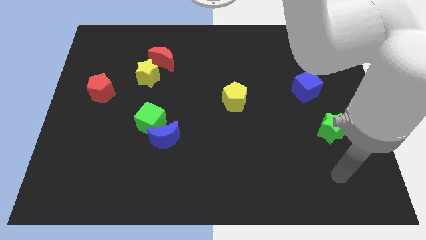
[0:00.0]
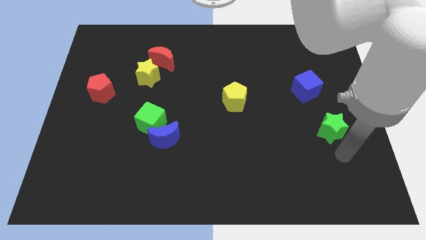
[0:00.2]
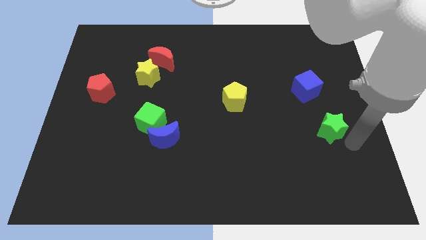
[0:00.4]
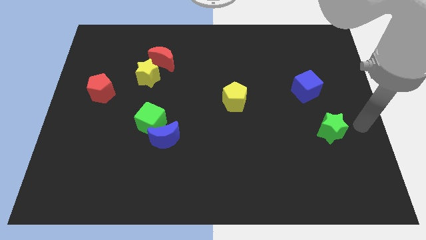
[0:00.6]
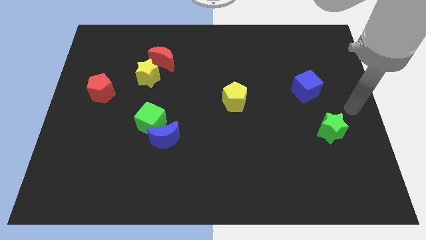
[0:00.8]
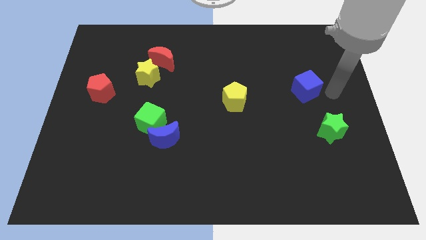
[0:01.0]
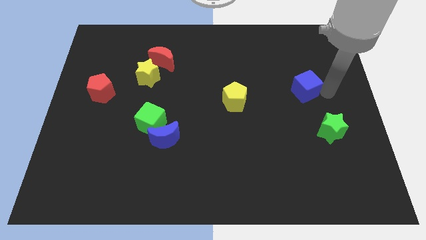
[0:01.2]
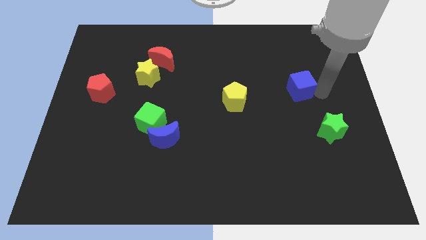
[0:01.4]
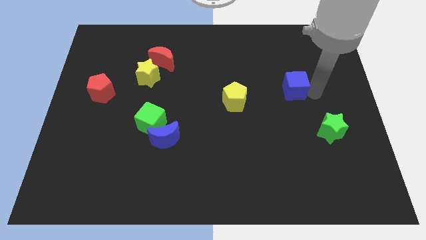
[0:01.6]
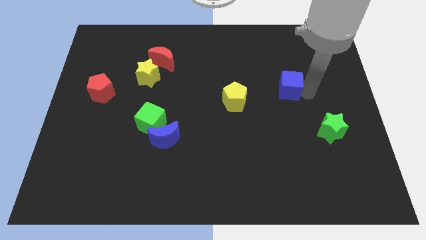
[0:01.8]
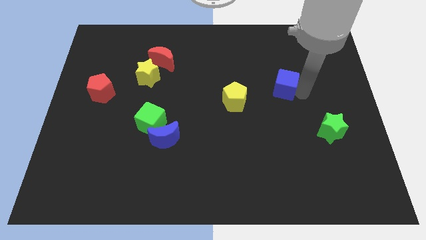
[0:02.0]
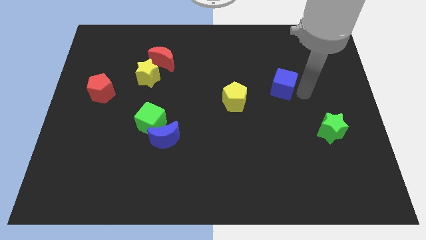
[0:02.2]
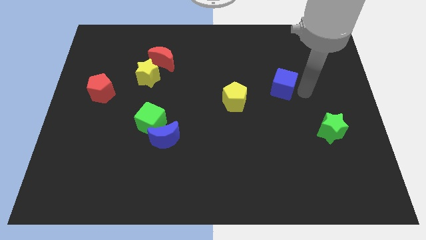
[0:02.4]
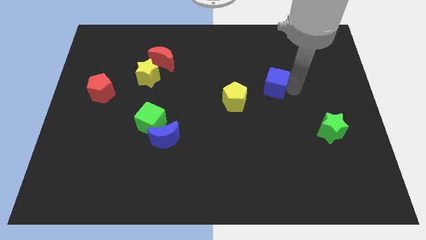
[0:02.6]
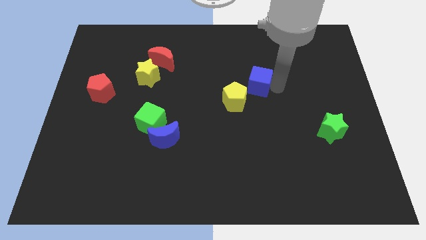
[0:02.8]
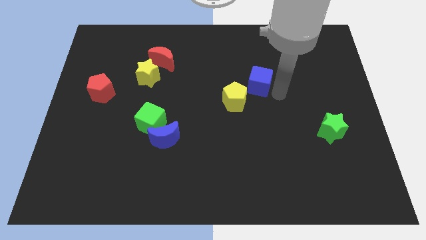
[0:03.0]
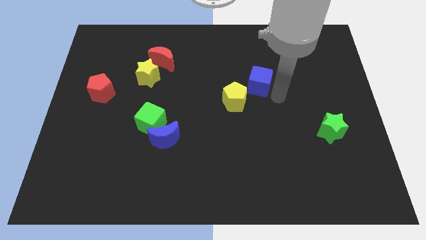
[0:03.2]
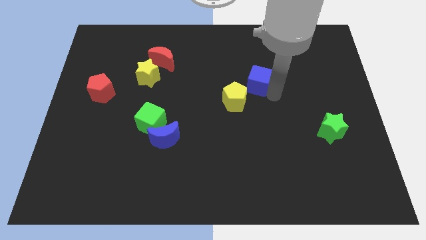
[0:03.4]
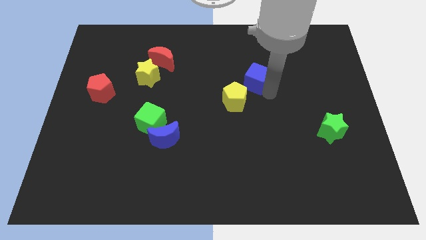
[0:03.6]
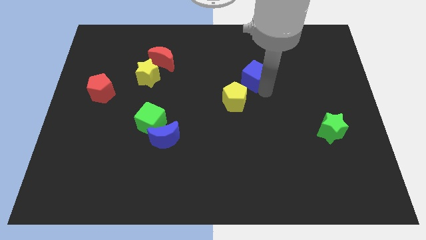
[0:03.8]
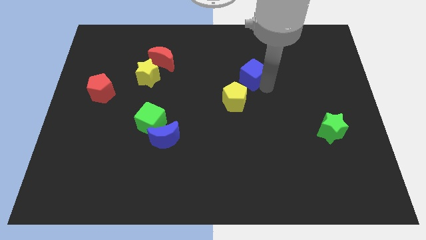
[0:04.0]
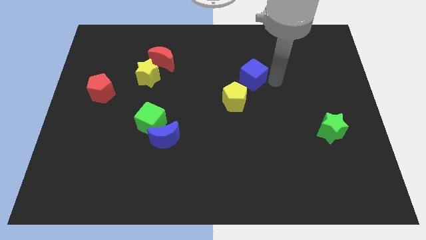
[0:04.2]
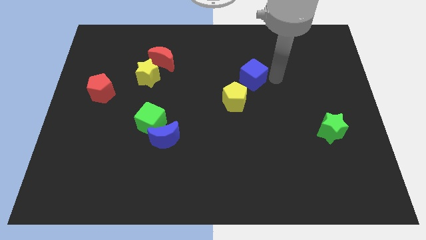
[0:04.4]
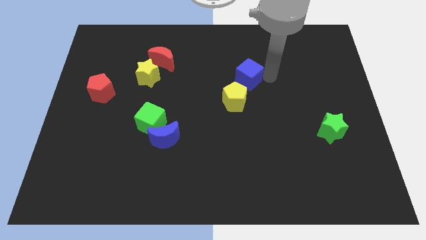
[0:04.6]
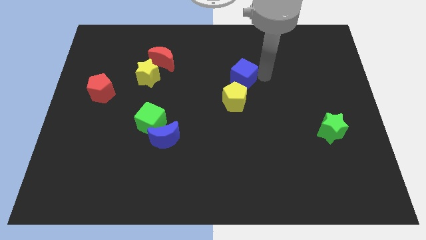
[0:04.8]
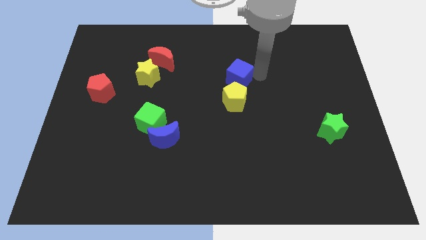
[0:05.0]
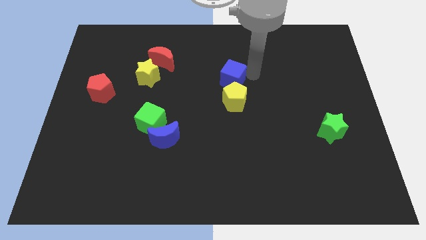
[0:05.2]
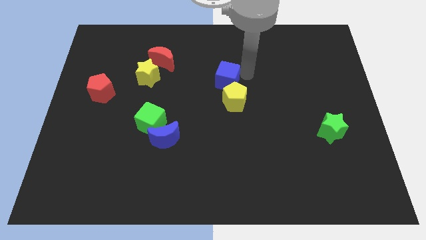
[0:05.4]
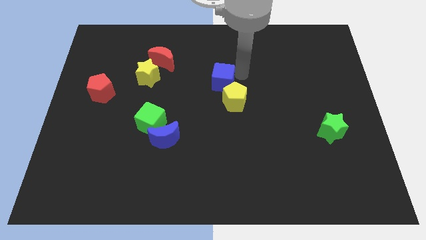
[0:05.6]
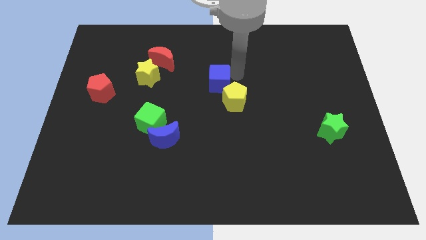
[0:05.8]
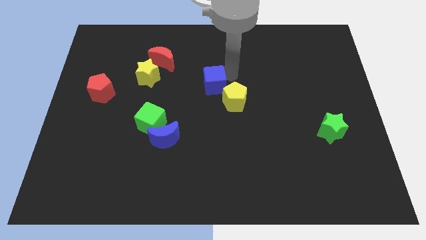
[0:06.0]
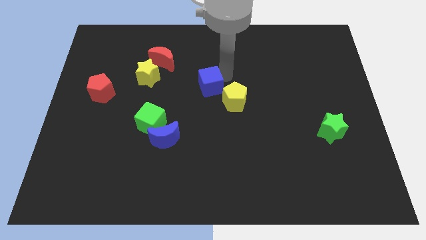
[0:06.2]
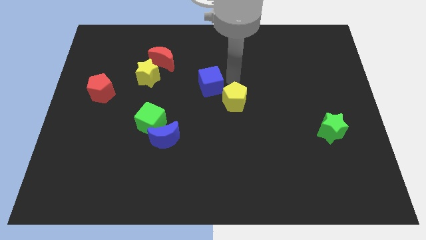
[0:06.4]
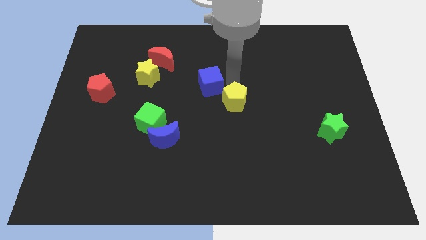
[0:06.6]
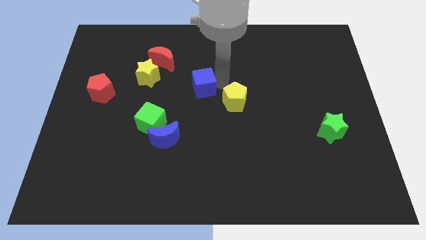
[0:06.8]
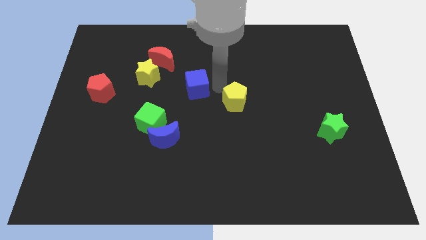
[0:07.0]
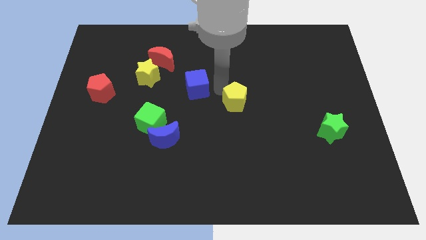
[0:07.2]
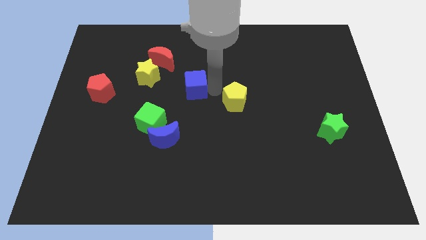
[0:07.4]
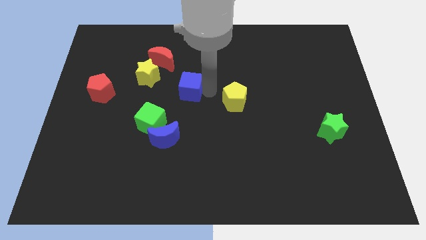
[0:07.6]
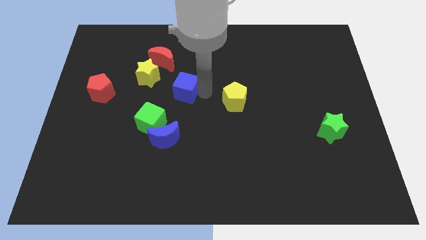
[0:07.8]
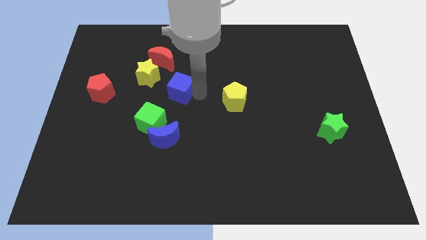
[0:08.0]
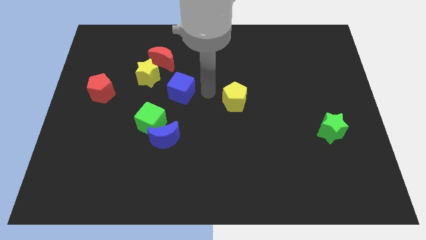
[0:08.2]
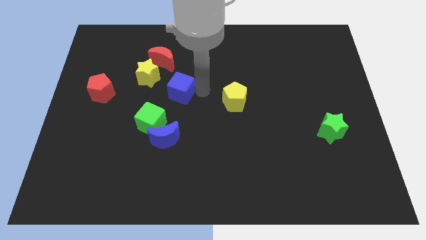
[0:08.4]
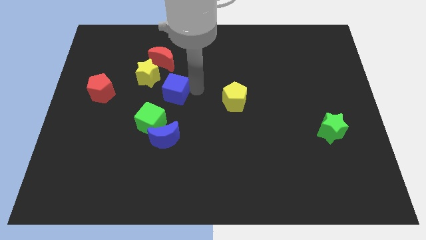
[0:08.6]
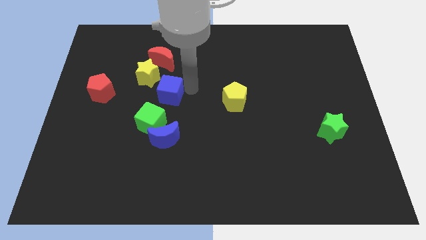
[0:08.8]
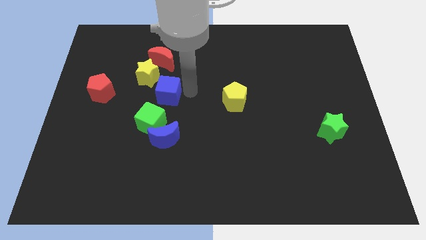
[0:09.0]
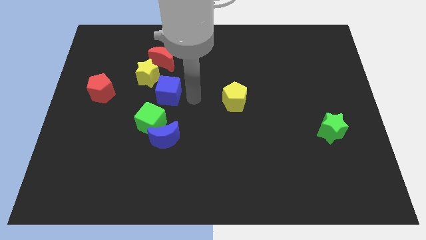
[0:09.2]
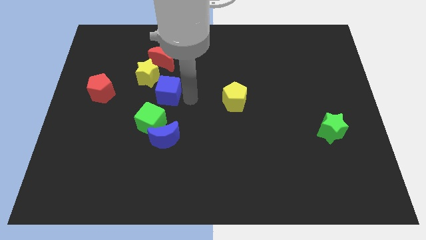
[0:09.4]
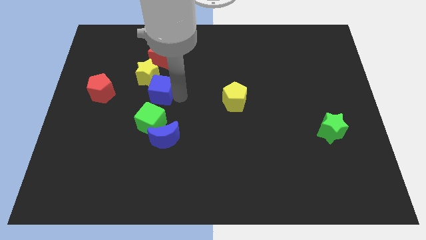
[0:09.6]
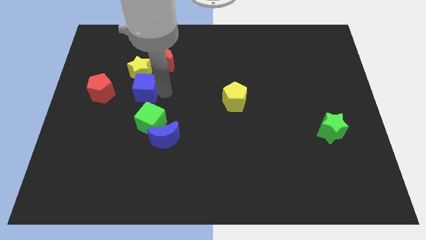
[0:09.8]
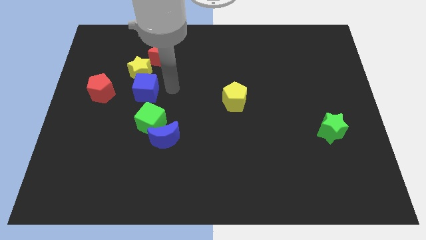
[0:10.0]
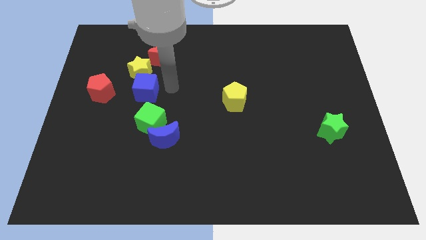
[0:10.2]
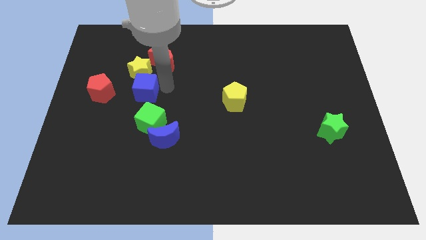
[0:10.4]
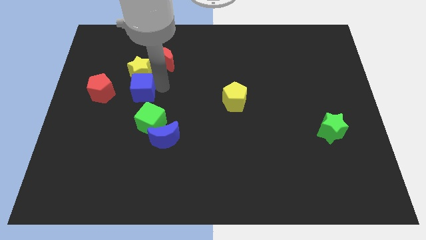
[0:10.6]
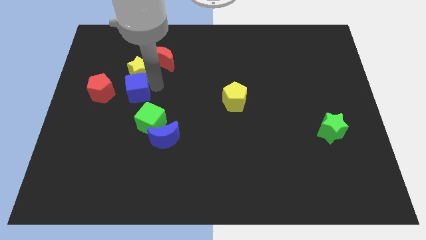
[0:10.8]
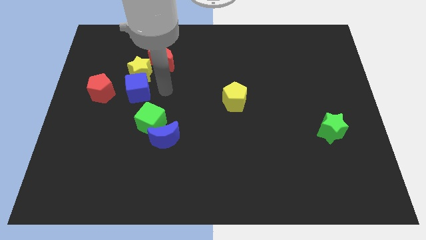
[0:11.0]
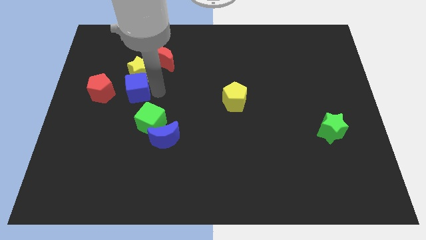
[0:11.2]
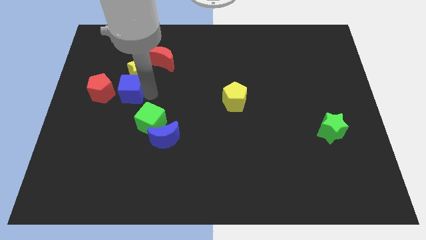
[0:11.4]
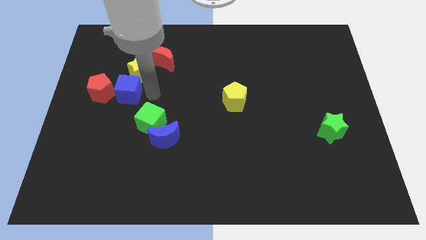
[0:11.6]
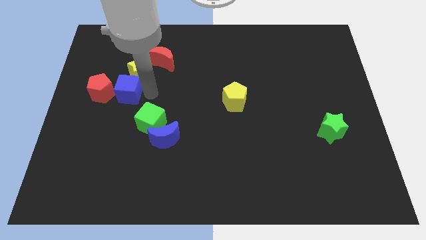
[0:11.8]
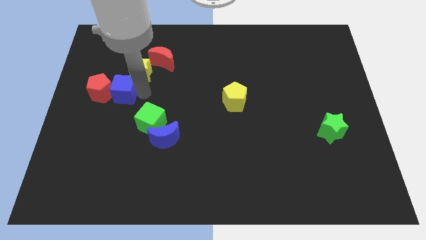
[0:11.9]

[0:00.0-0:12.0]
put the blue cube to the red pentagon
